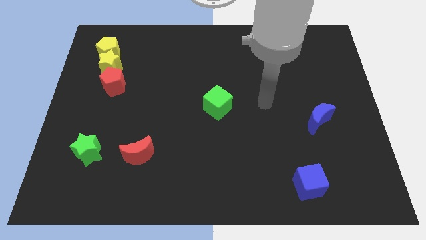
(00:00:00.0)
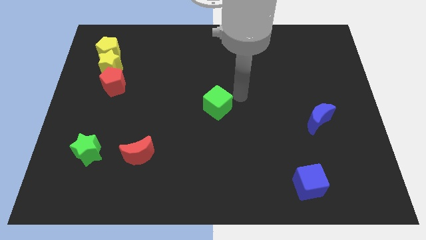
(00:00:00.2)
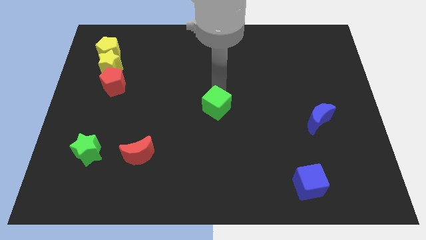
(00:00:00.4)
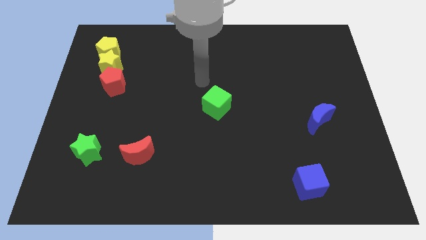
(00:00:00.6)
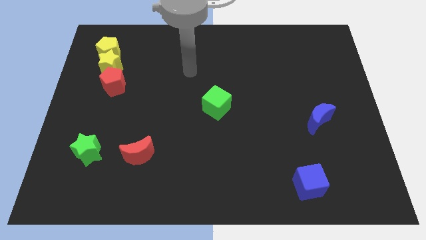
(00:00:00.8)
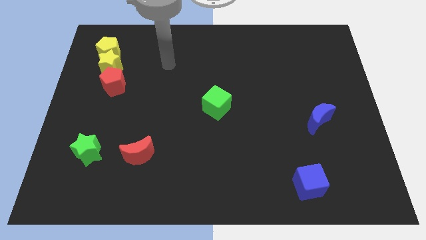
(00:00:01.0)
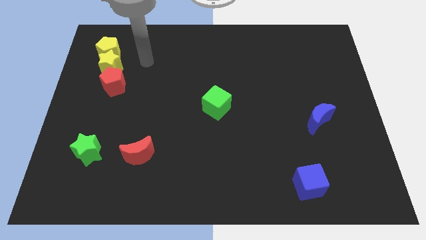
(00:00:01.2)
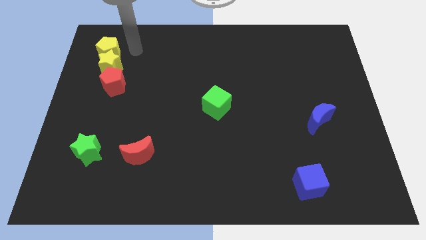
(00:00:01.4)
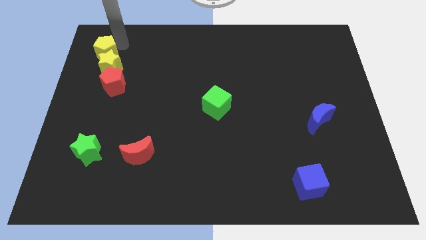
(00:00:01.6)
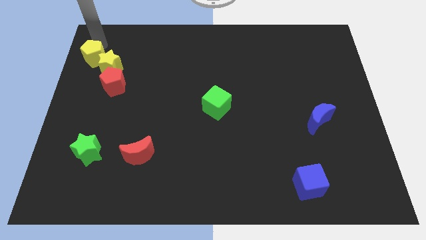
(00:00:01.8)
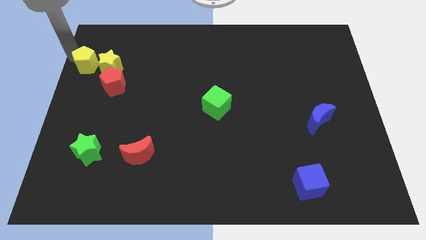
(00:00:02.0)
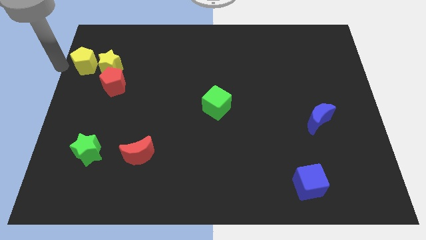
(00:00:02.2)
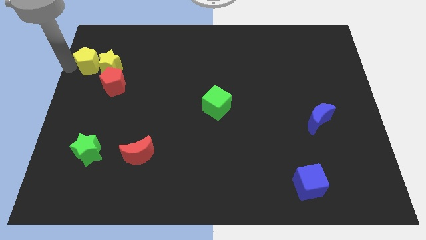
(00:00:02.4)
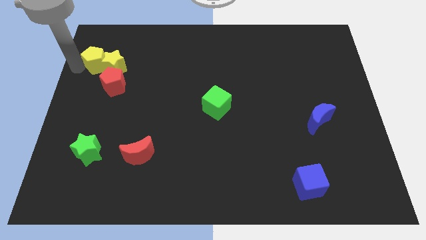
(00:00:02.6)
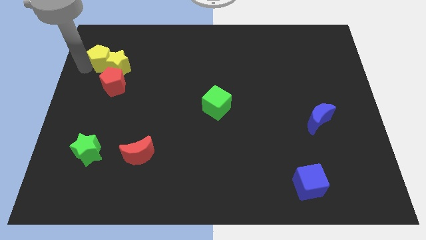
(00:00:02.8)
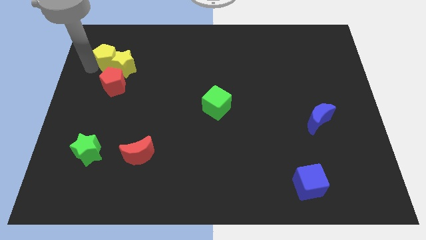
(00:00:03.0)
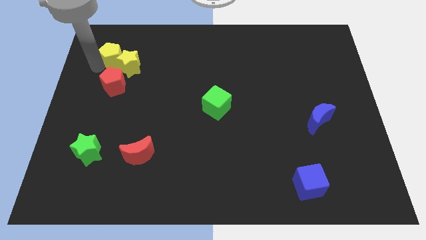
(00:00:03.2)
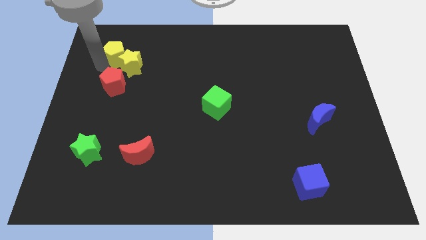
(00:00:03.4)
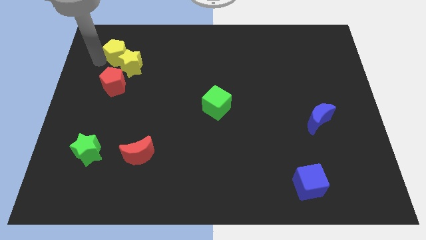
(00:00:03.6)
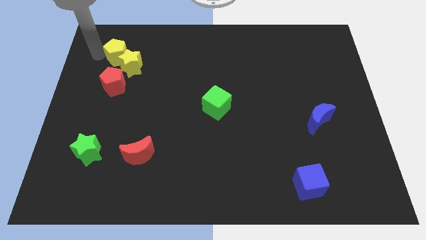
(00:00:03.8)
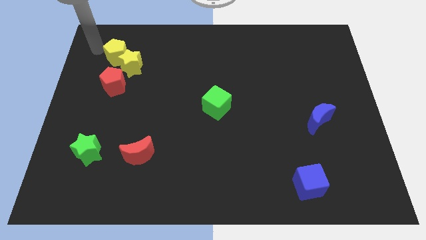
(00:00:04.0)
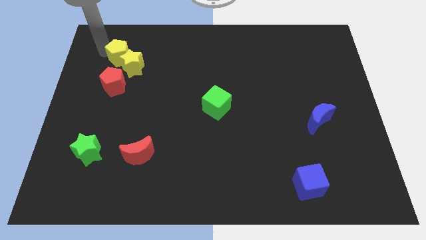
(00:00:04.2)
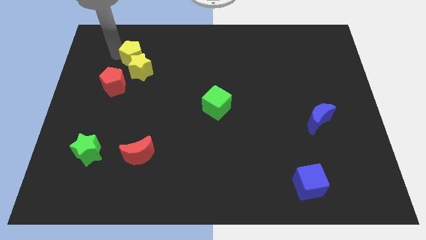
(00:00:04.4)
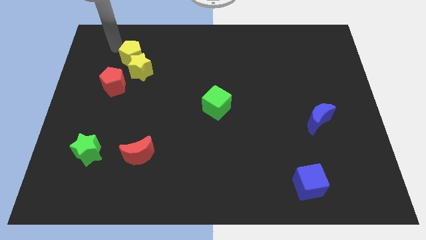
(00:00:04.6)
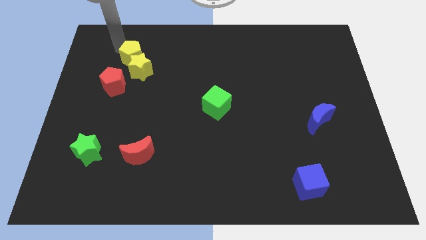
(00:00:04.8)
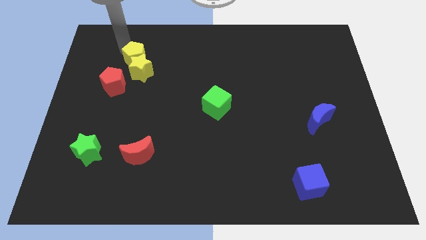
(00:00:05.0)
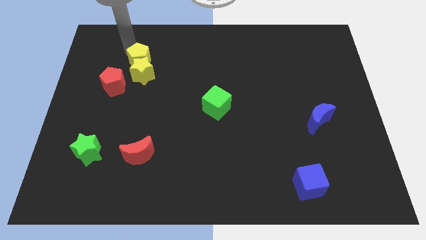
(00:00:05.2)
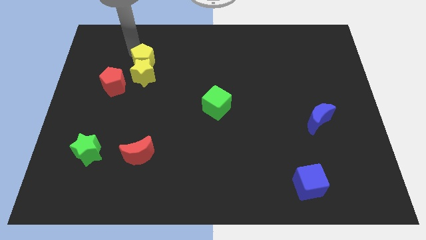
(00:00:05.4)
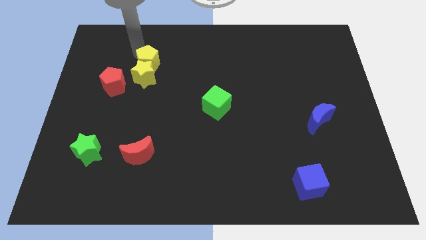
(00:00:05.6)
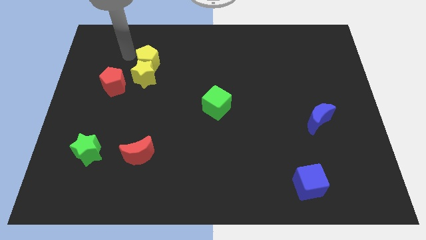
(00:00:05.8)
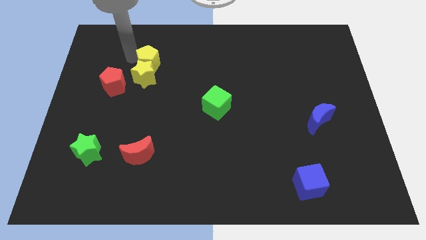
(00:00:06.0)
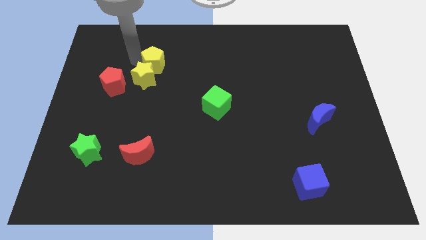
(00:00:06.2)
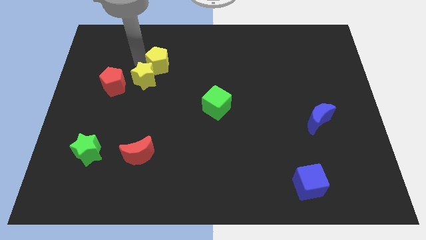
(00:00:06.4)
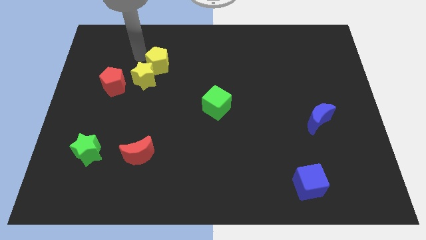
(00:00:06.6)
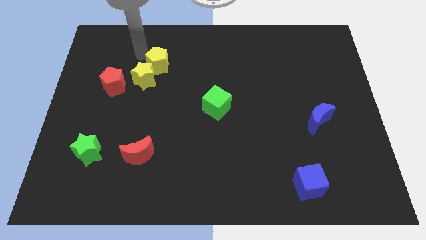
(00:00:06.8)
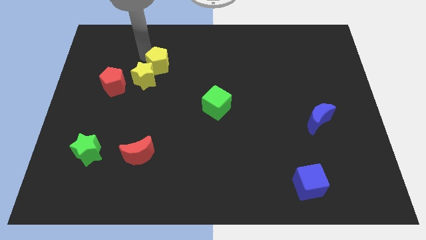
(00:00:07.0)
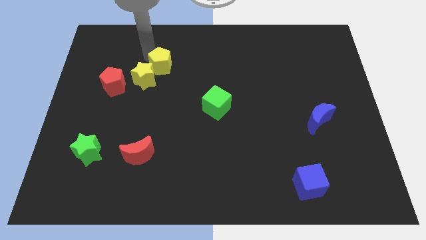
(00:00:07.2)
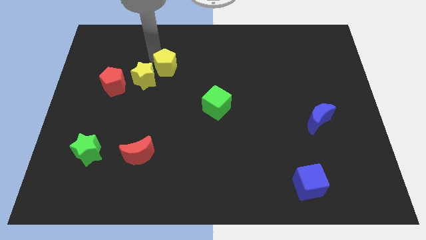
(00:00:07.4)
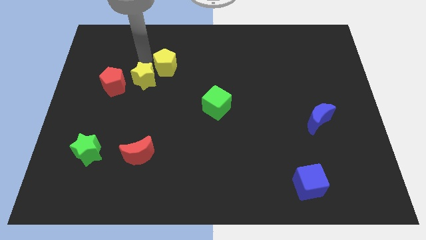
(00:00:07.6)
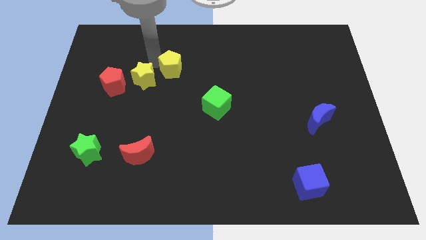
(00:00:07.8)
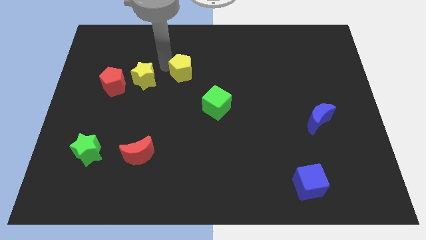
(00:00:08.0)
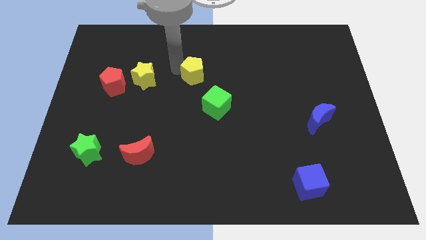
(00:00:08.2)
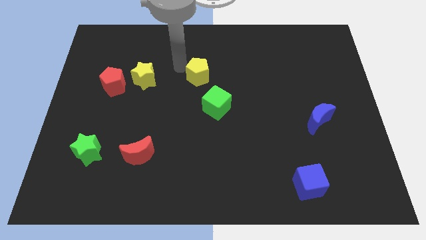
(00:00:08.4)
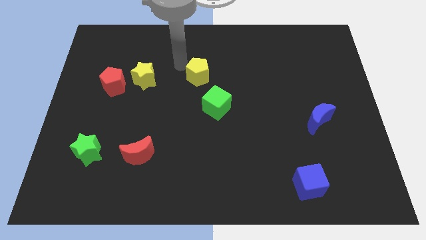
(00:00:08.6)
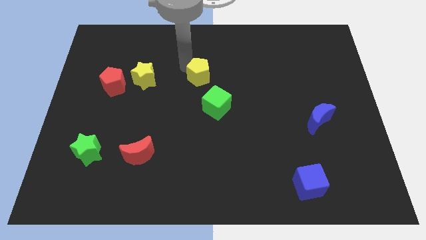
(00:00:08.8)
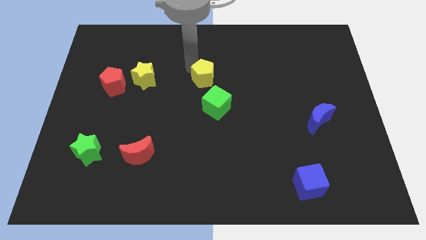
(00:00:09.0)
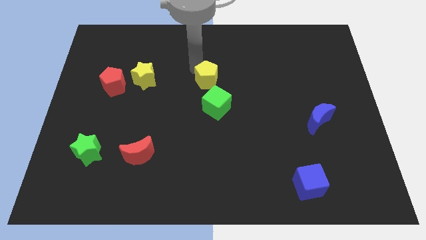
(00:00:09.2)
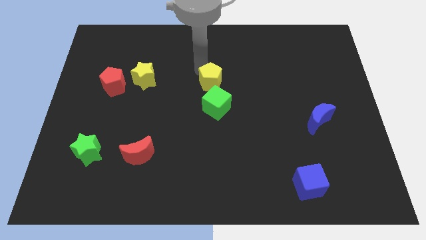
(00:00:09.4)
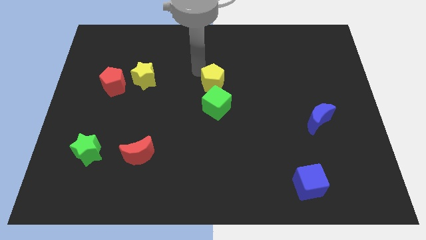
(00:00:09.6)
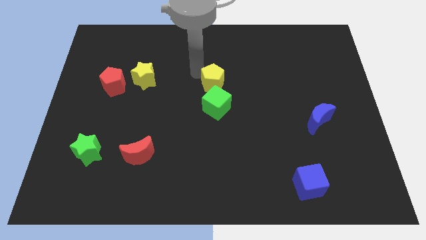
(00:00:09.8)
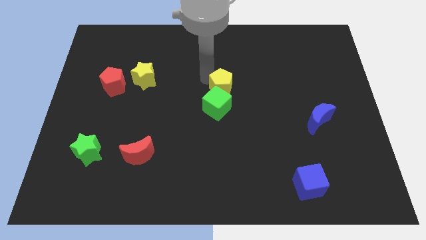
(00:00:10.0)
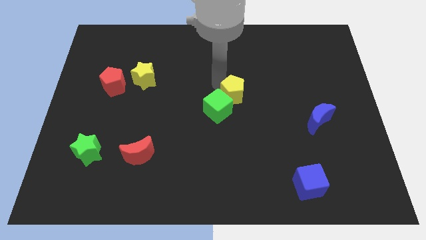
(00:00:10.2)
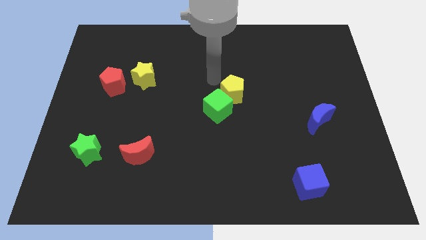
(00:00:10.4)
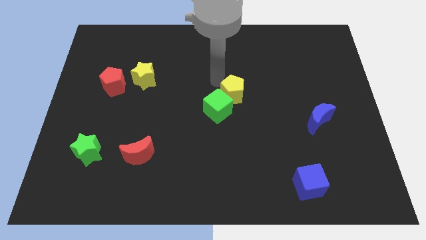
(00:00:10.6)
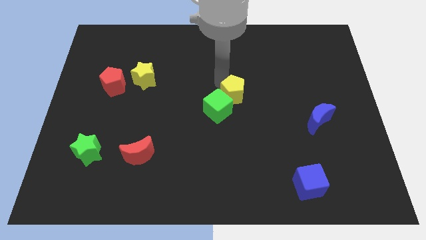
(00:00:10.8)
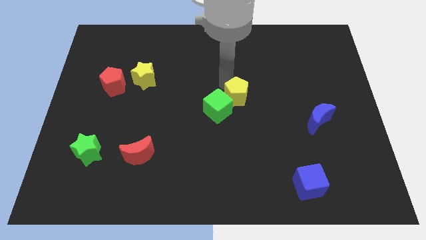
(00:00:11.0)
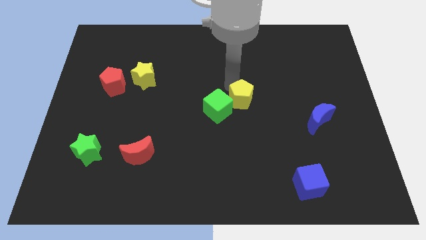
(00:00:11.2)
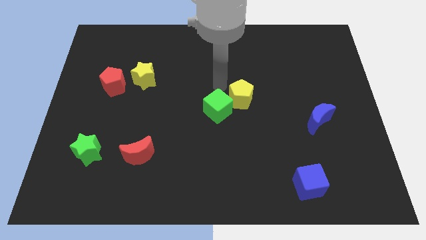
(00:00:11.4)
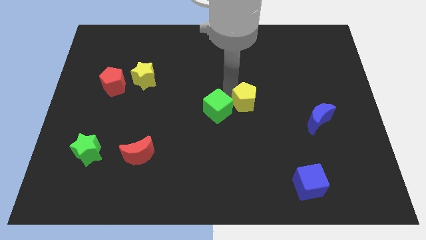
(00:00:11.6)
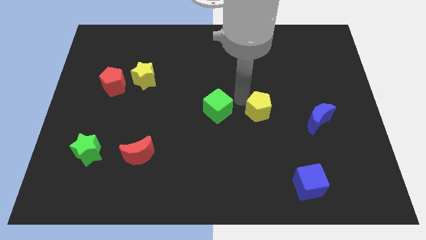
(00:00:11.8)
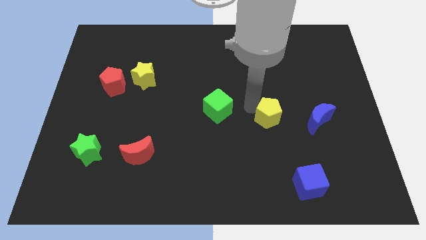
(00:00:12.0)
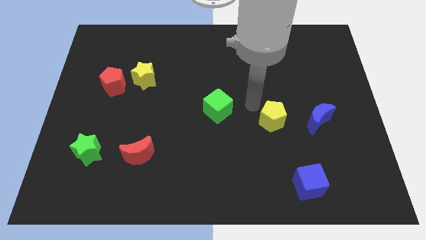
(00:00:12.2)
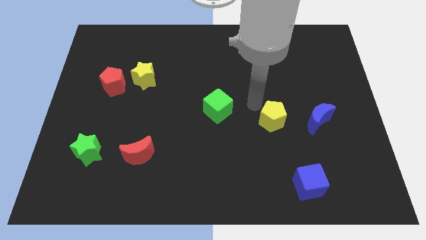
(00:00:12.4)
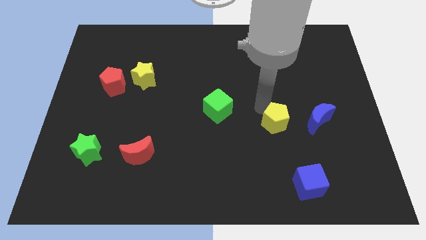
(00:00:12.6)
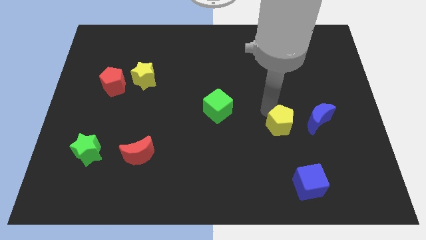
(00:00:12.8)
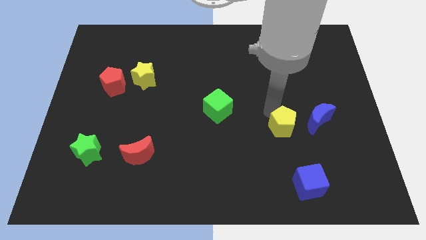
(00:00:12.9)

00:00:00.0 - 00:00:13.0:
push the yellow pentagon above the blue cube

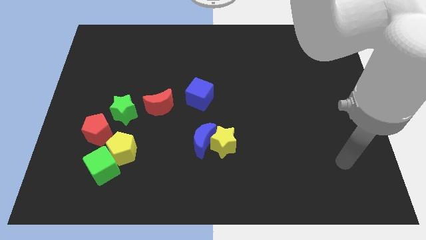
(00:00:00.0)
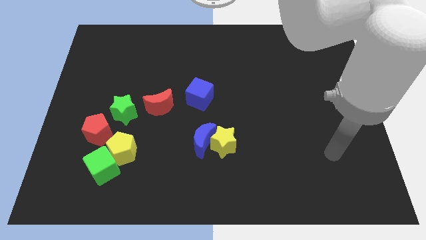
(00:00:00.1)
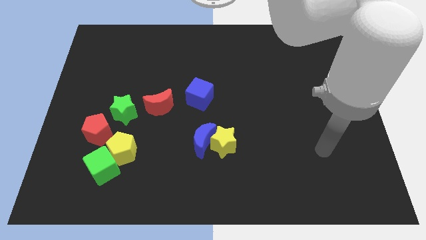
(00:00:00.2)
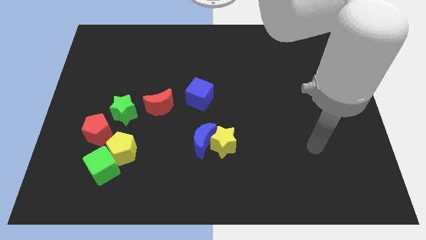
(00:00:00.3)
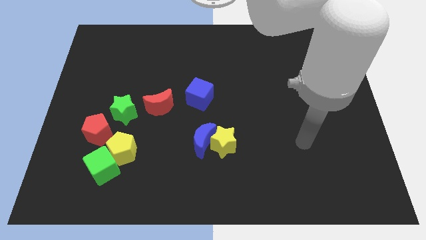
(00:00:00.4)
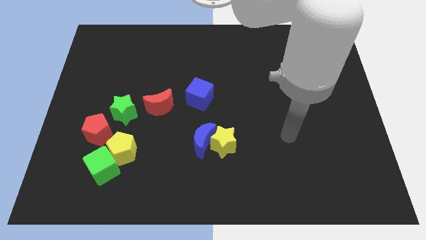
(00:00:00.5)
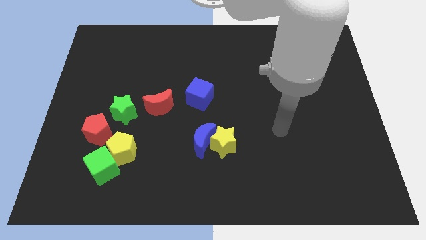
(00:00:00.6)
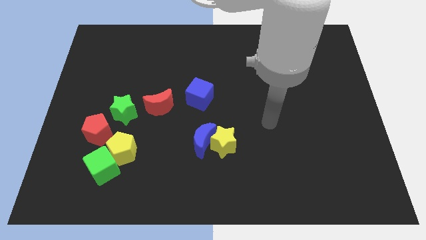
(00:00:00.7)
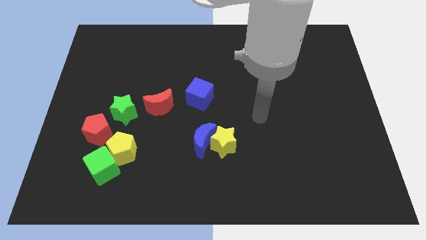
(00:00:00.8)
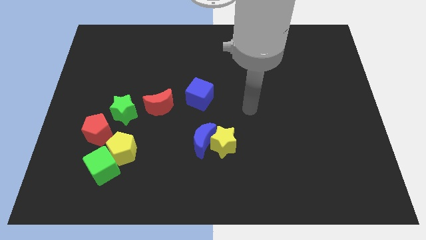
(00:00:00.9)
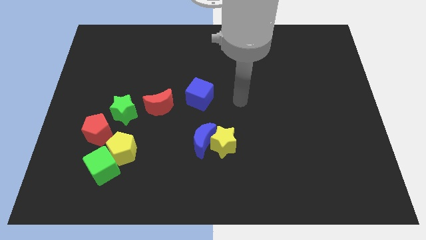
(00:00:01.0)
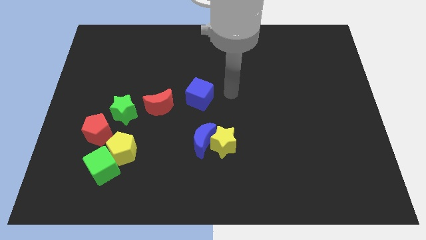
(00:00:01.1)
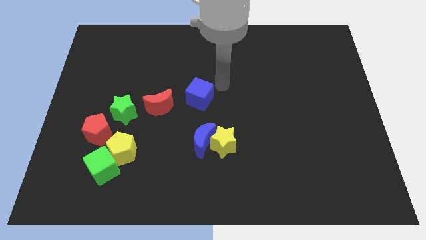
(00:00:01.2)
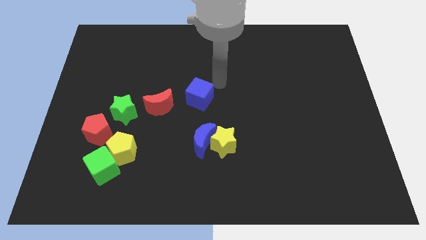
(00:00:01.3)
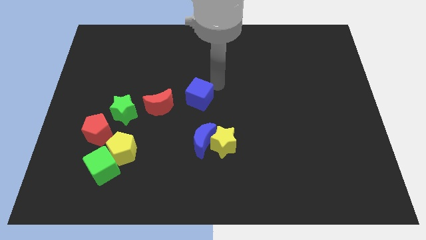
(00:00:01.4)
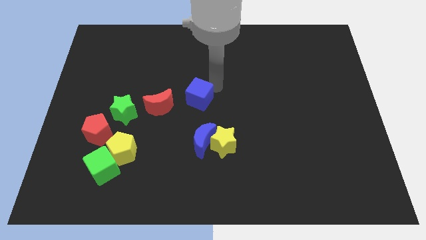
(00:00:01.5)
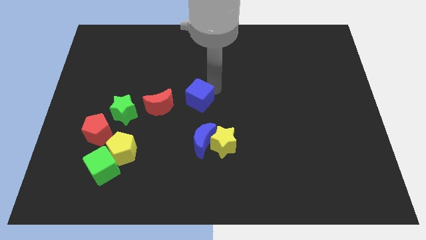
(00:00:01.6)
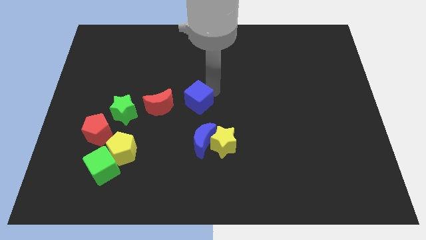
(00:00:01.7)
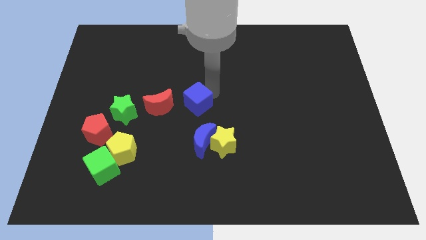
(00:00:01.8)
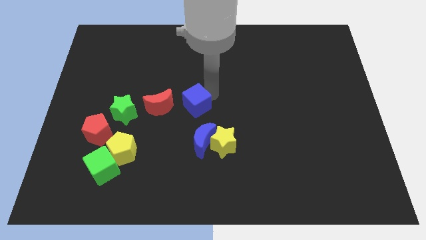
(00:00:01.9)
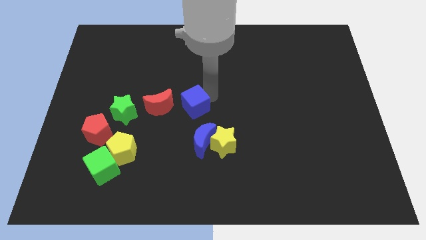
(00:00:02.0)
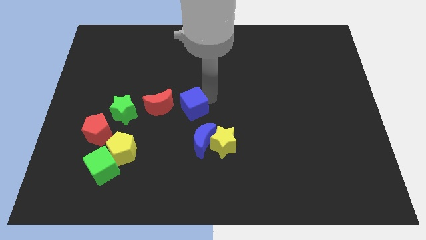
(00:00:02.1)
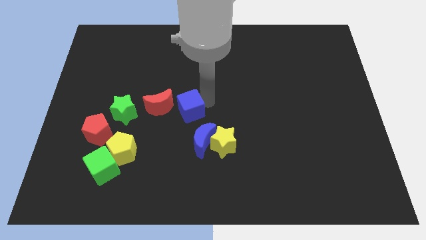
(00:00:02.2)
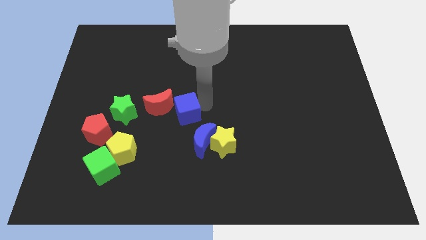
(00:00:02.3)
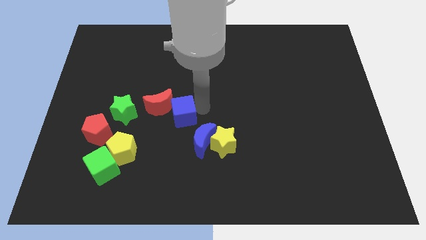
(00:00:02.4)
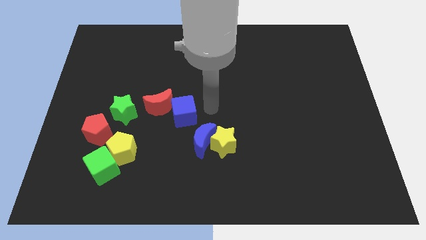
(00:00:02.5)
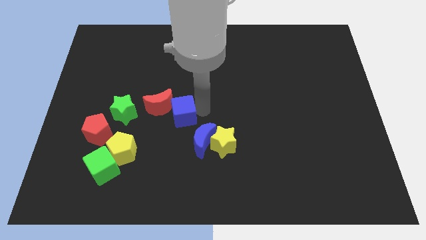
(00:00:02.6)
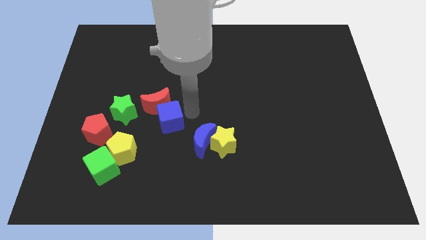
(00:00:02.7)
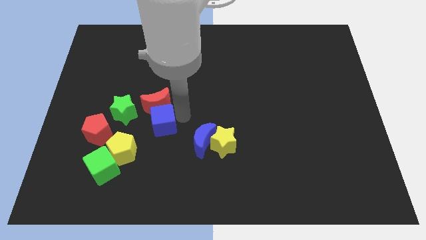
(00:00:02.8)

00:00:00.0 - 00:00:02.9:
put the blue cube to the bottom left of the red moon
